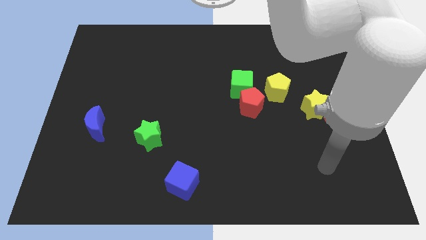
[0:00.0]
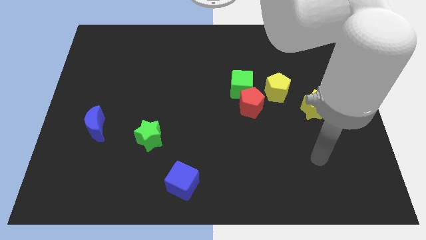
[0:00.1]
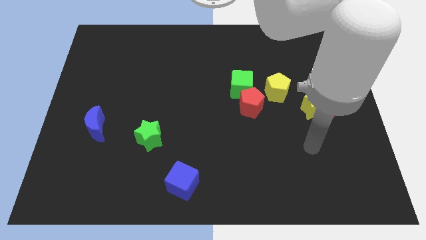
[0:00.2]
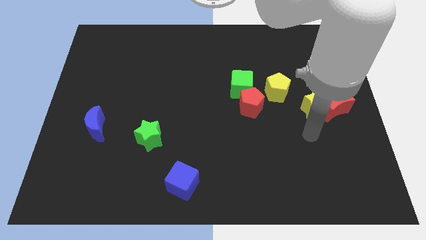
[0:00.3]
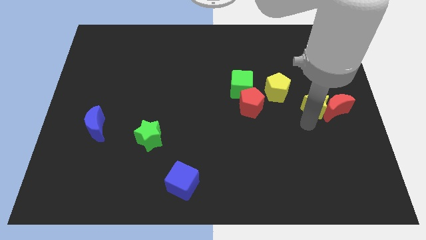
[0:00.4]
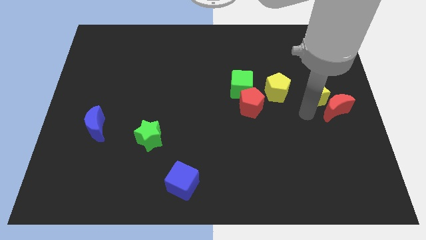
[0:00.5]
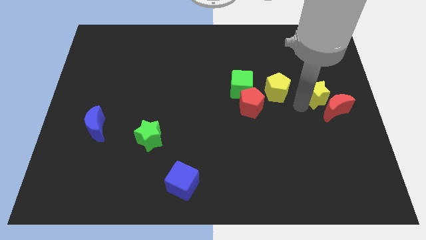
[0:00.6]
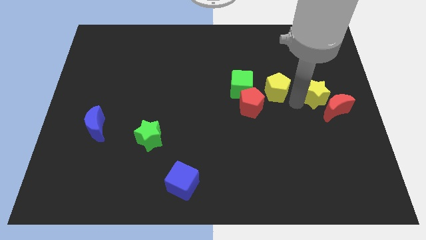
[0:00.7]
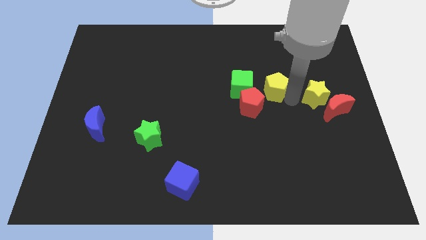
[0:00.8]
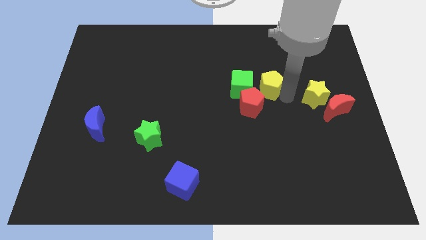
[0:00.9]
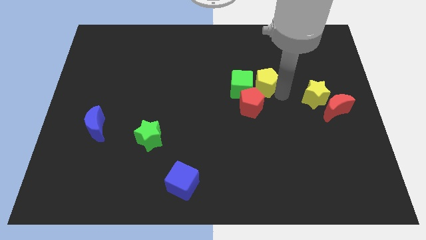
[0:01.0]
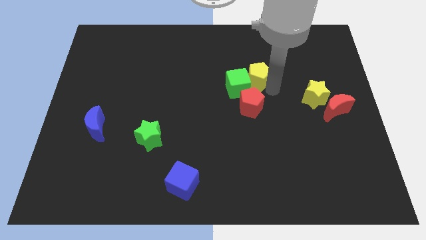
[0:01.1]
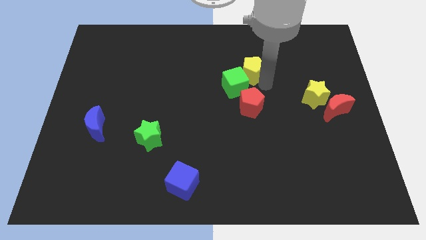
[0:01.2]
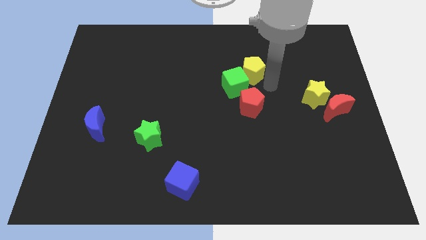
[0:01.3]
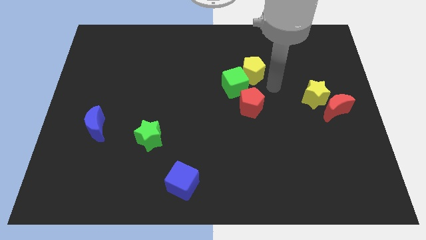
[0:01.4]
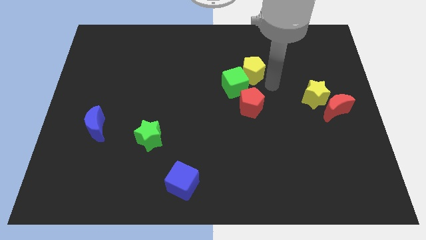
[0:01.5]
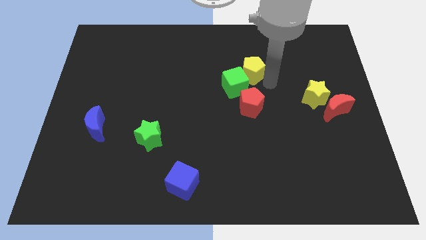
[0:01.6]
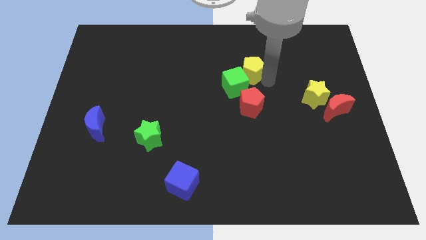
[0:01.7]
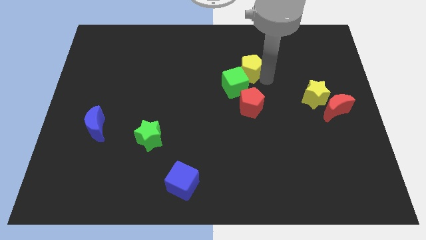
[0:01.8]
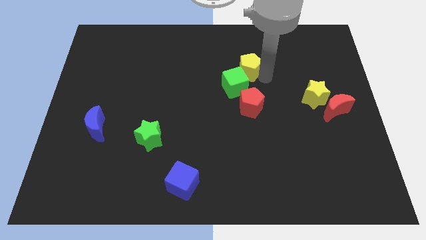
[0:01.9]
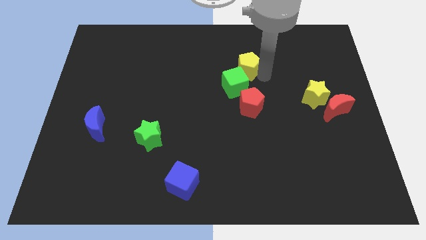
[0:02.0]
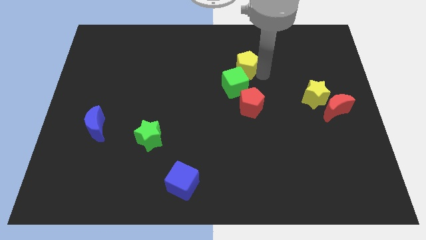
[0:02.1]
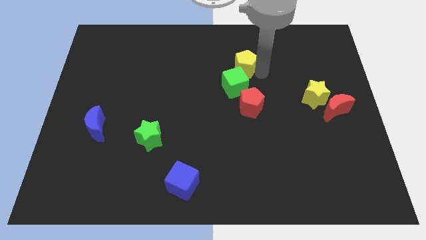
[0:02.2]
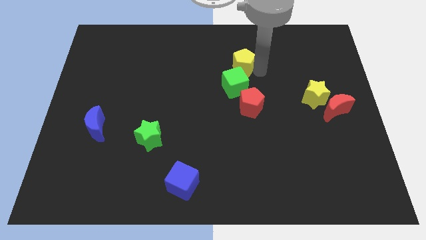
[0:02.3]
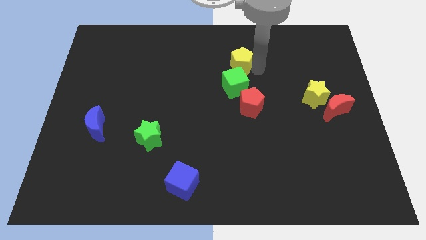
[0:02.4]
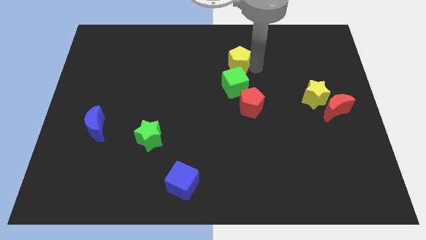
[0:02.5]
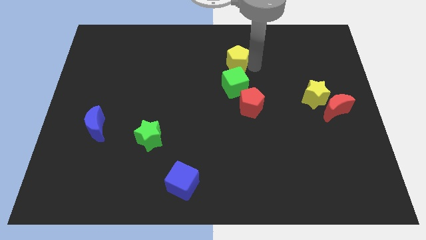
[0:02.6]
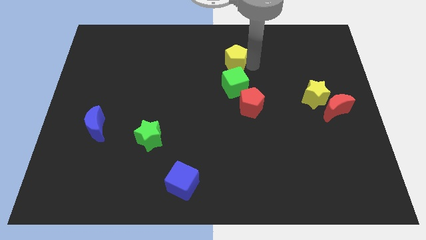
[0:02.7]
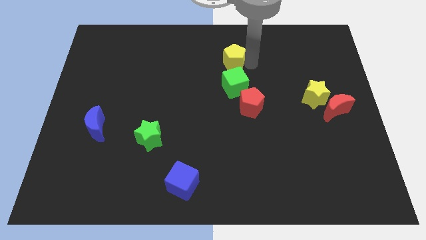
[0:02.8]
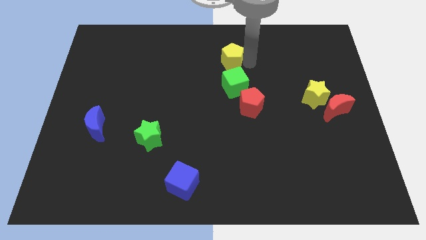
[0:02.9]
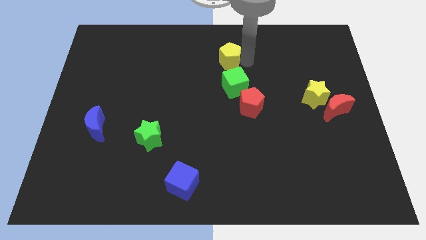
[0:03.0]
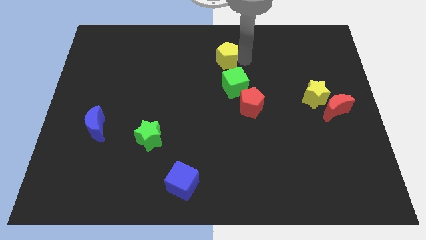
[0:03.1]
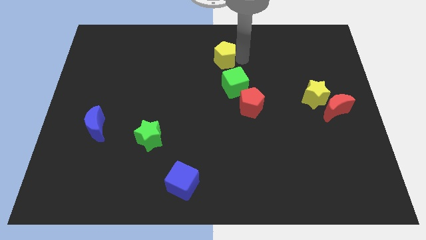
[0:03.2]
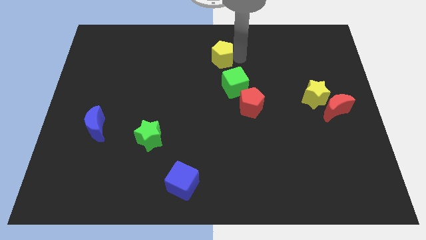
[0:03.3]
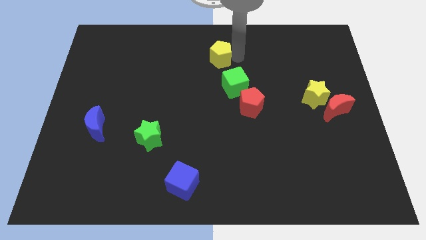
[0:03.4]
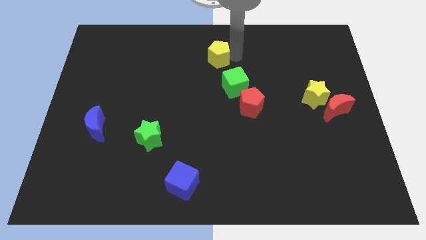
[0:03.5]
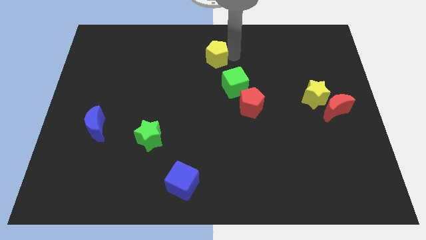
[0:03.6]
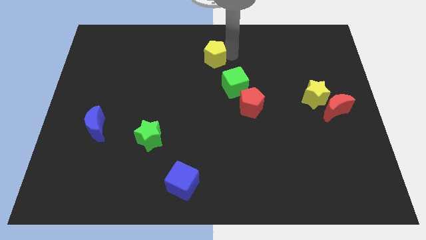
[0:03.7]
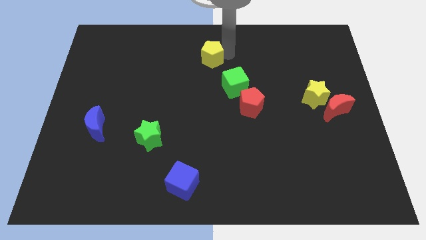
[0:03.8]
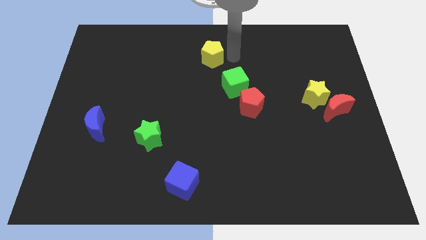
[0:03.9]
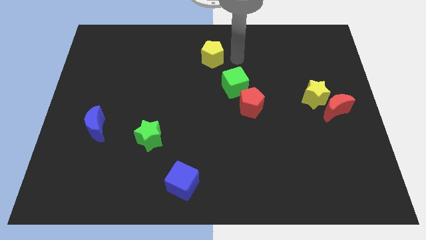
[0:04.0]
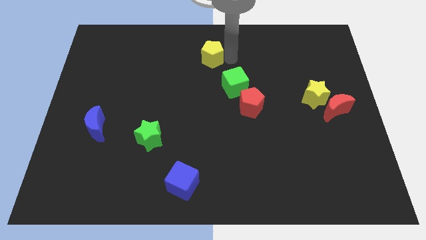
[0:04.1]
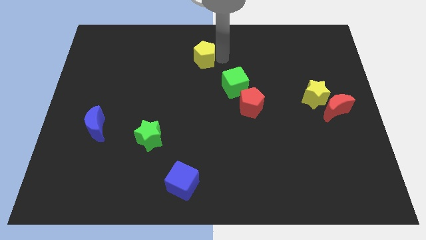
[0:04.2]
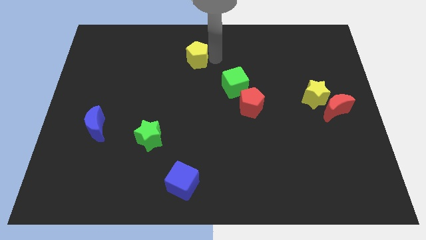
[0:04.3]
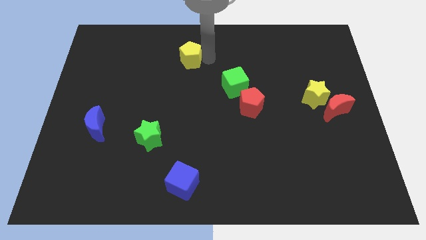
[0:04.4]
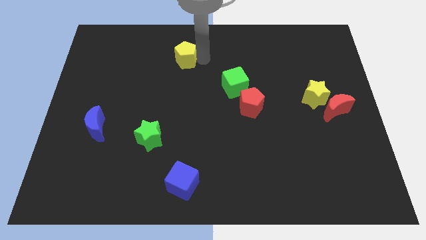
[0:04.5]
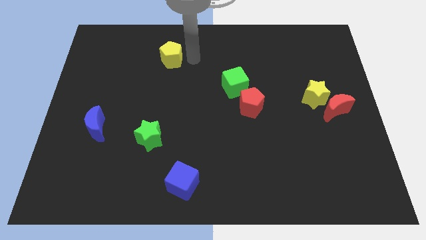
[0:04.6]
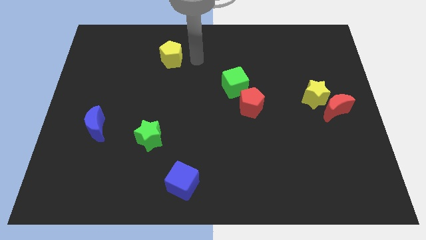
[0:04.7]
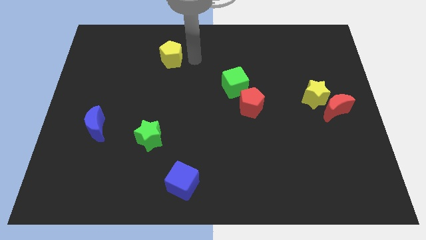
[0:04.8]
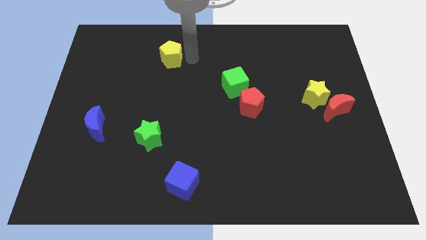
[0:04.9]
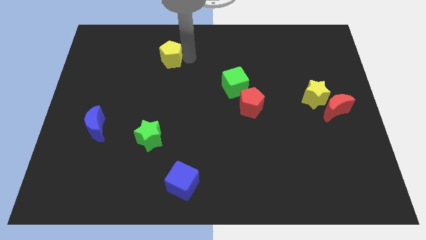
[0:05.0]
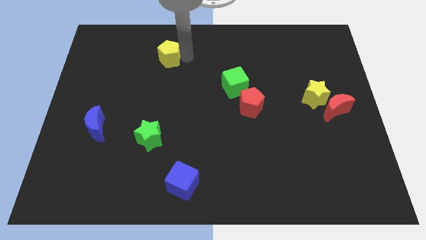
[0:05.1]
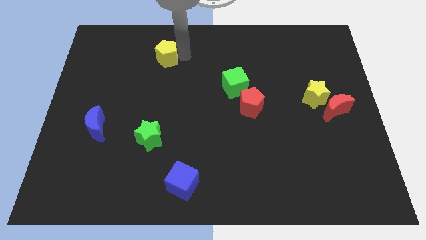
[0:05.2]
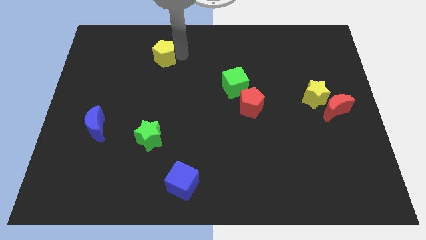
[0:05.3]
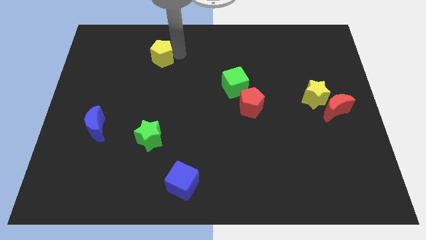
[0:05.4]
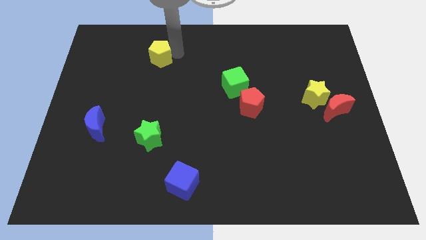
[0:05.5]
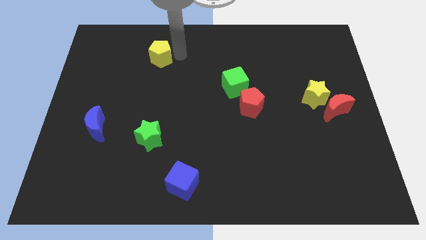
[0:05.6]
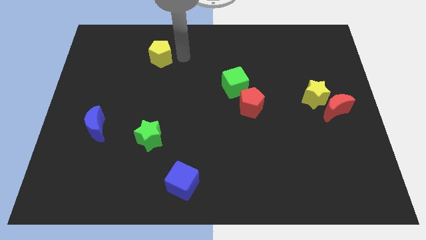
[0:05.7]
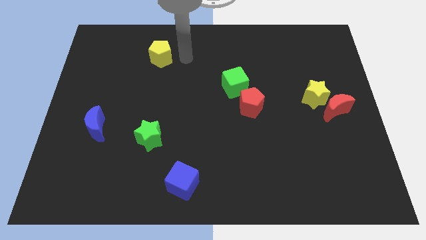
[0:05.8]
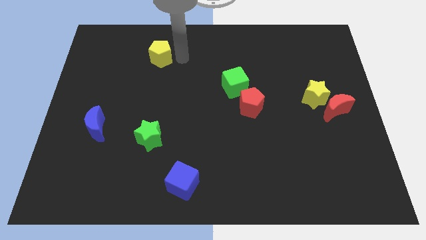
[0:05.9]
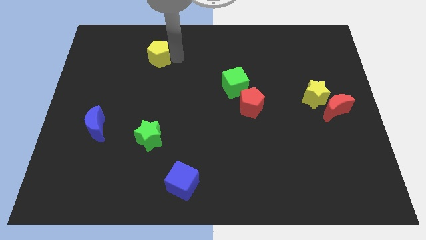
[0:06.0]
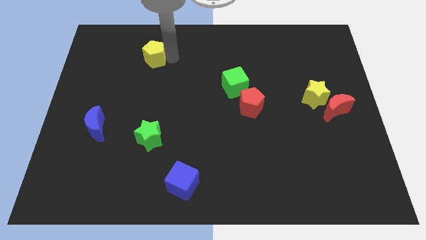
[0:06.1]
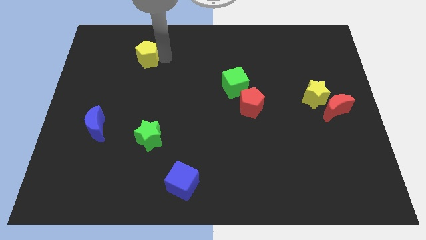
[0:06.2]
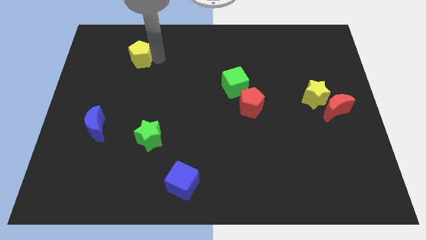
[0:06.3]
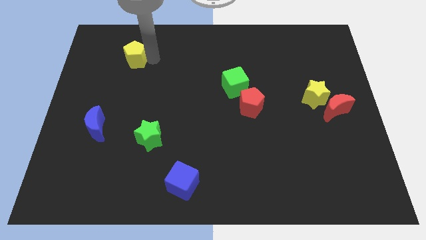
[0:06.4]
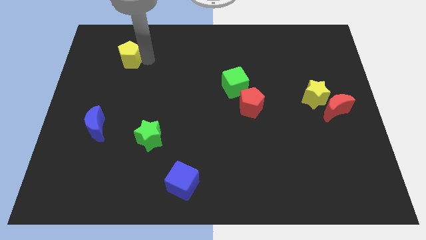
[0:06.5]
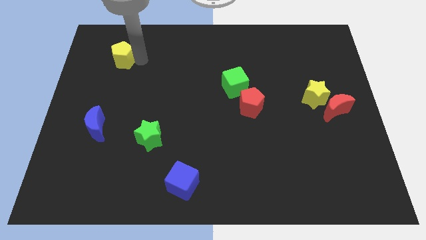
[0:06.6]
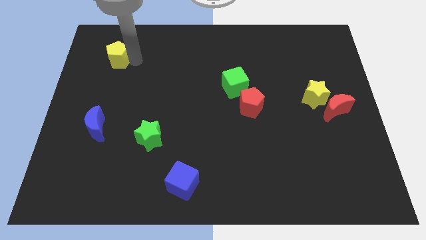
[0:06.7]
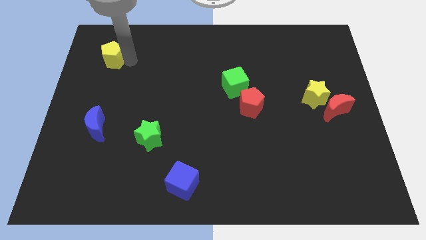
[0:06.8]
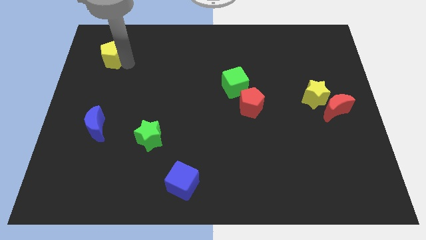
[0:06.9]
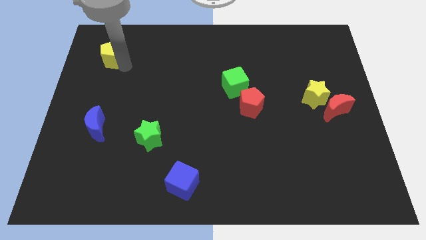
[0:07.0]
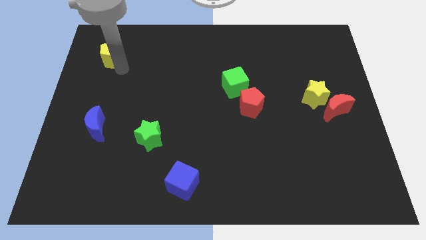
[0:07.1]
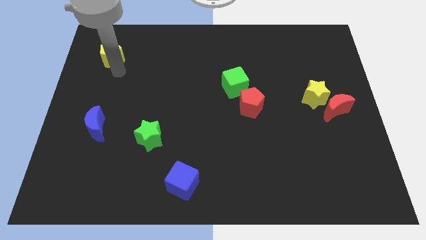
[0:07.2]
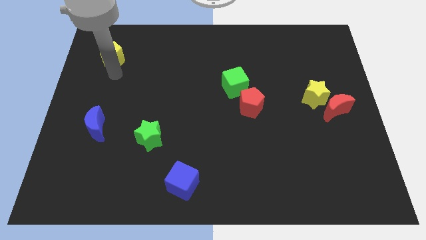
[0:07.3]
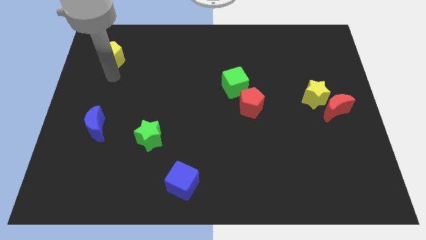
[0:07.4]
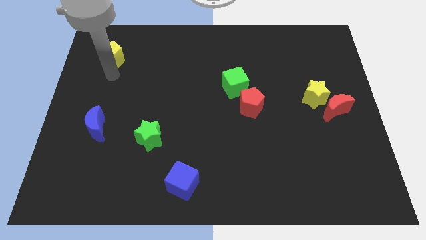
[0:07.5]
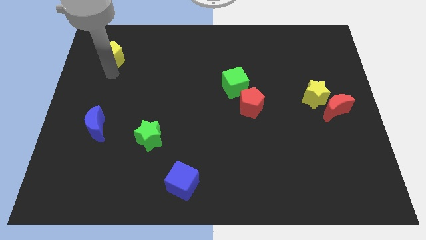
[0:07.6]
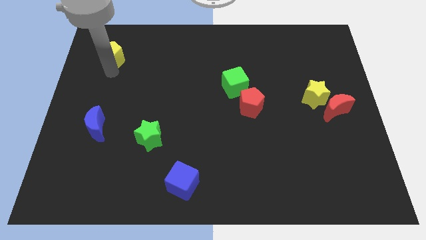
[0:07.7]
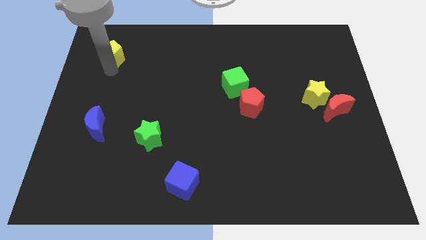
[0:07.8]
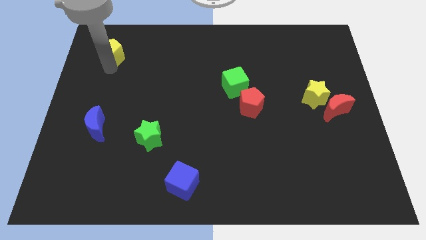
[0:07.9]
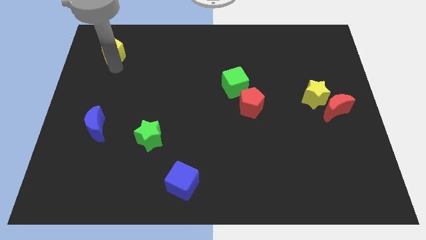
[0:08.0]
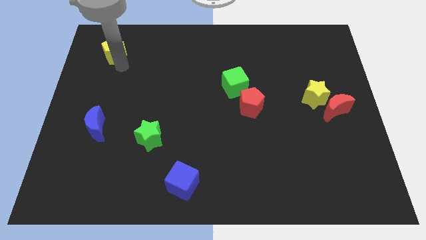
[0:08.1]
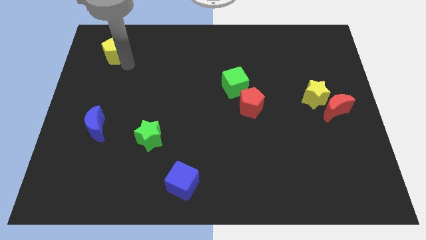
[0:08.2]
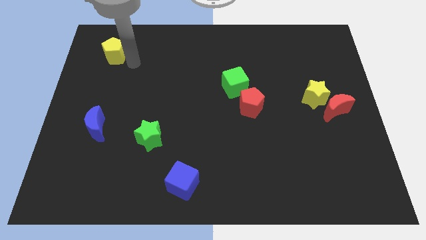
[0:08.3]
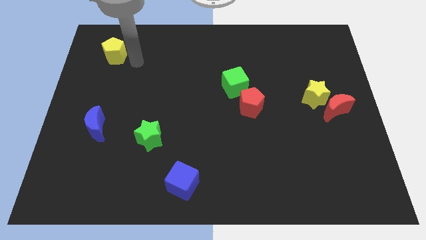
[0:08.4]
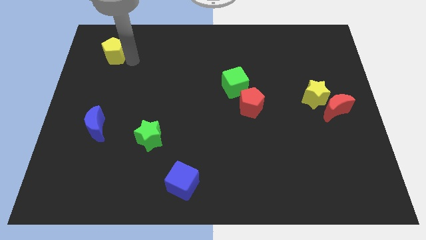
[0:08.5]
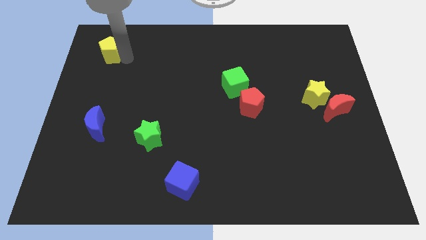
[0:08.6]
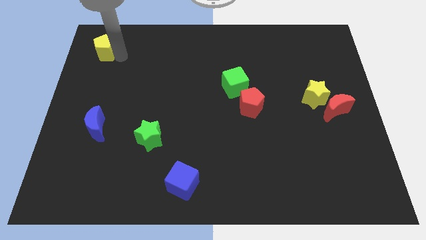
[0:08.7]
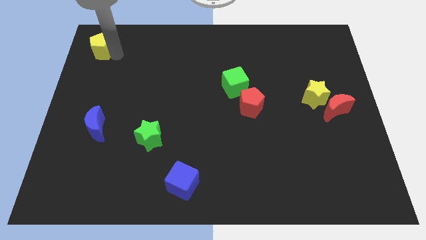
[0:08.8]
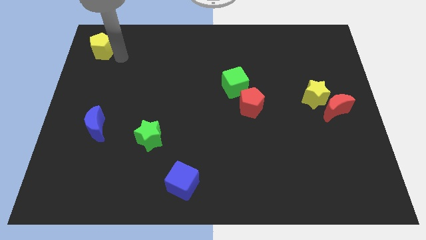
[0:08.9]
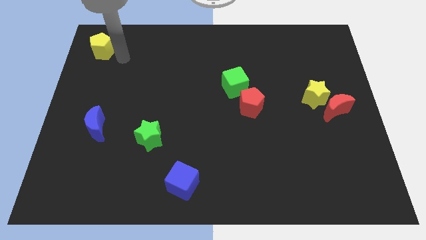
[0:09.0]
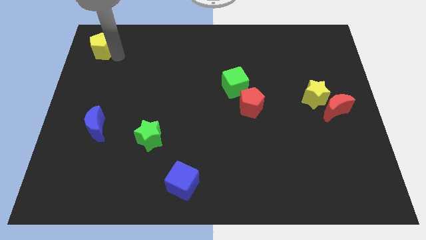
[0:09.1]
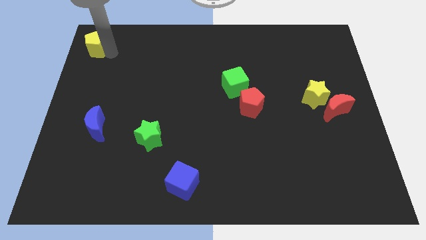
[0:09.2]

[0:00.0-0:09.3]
move the yellow pentagon to the top left
